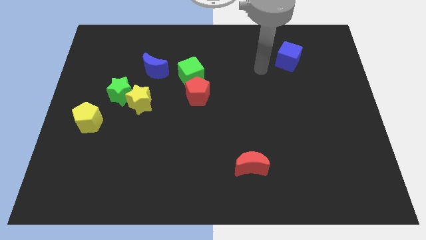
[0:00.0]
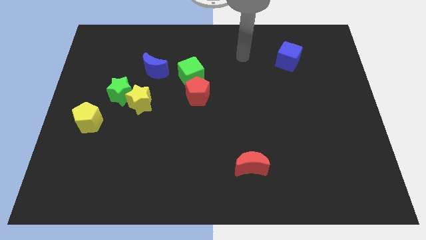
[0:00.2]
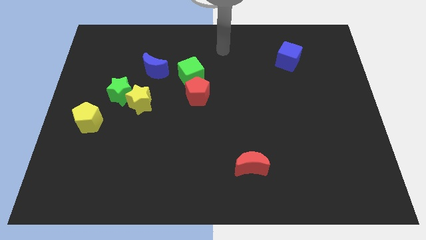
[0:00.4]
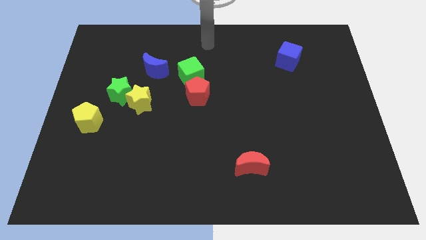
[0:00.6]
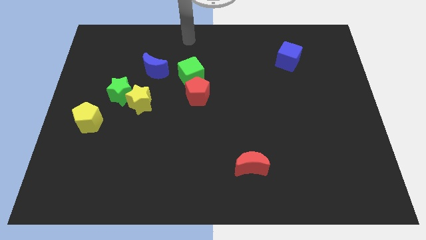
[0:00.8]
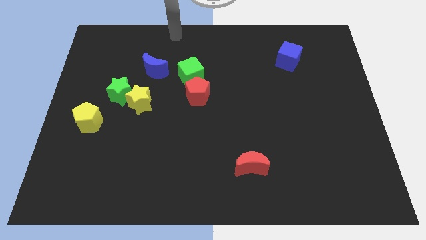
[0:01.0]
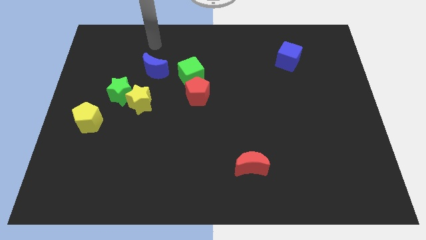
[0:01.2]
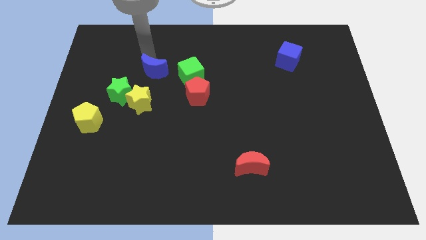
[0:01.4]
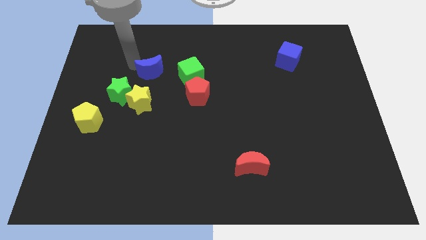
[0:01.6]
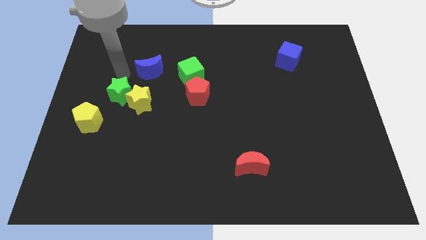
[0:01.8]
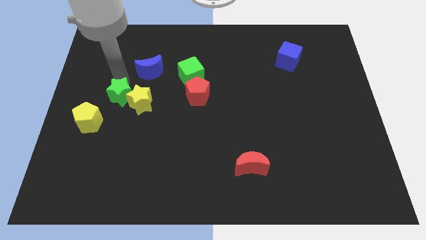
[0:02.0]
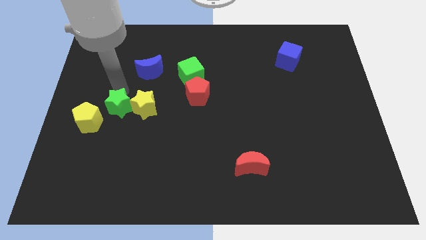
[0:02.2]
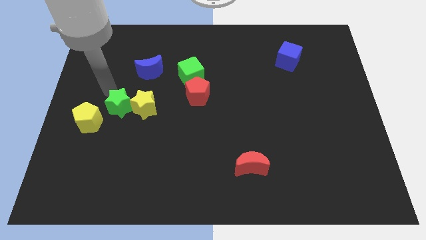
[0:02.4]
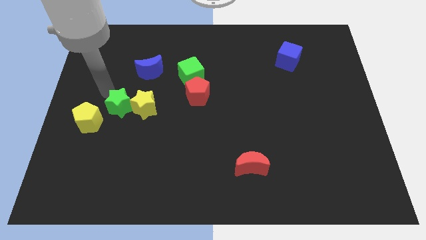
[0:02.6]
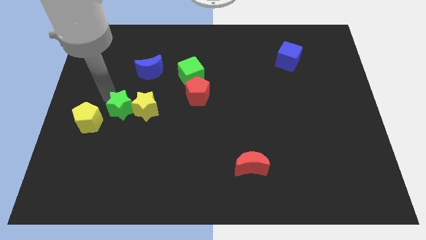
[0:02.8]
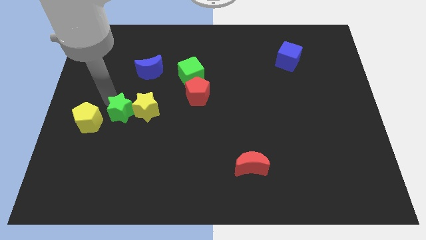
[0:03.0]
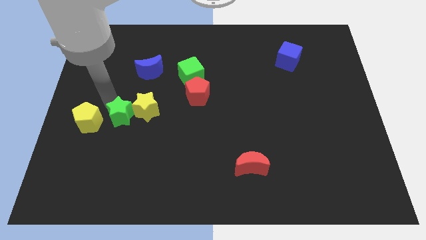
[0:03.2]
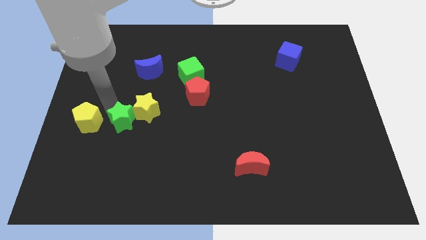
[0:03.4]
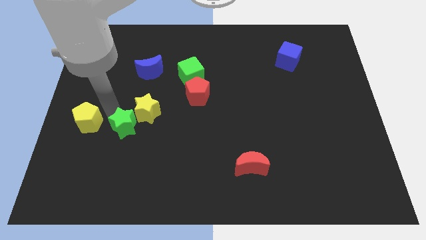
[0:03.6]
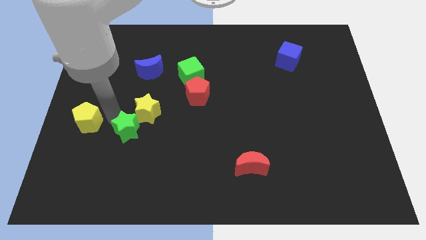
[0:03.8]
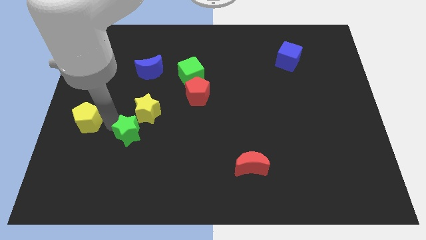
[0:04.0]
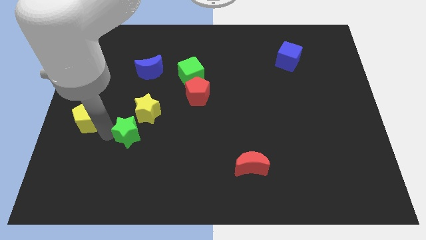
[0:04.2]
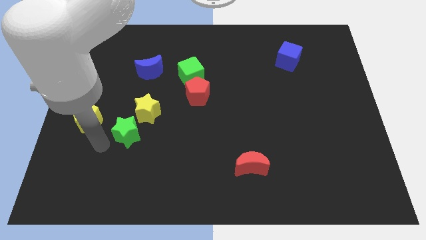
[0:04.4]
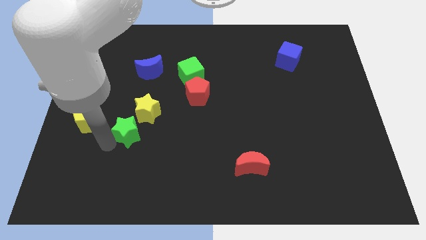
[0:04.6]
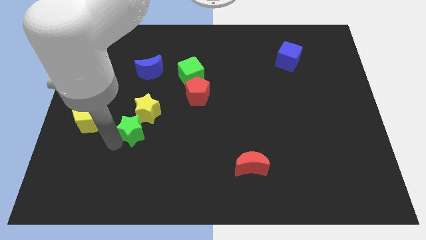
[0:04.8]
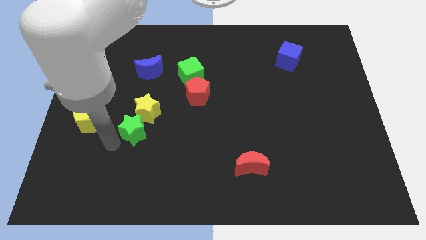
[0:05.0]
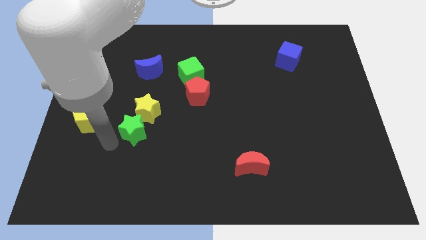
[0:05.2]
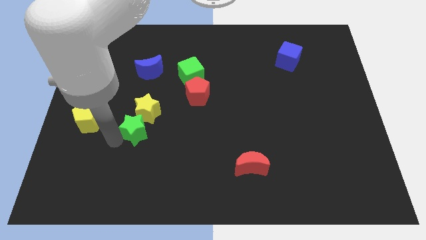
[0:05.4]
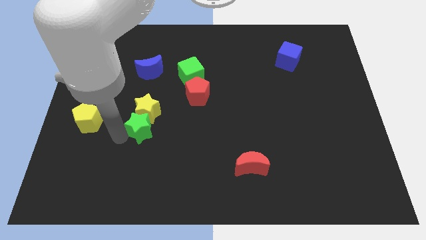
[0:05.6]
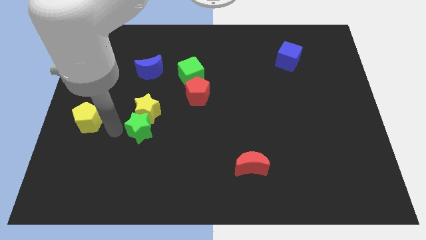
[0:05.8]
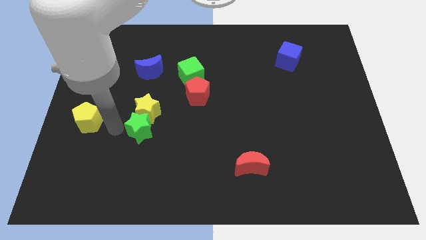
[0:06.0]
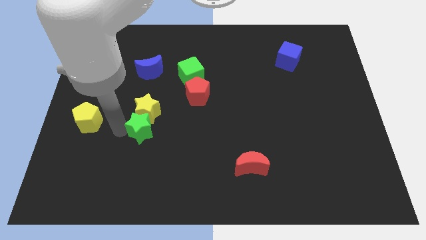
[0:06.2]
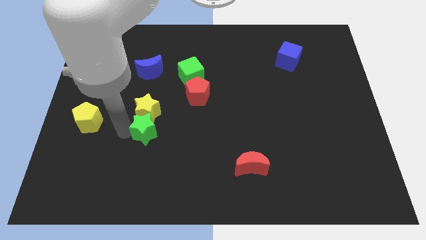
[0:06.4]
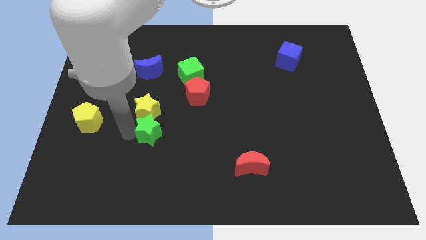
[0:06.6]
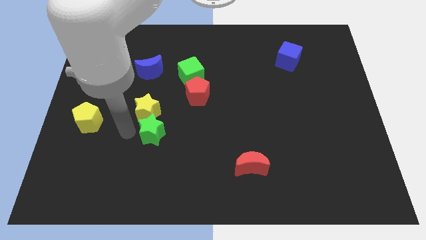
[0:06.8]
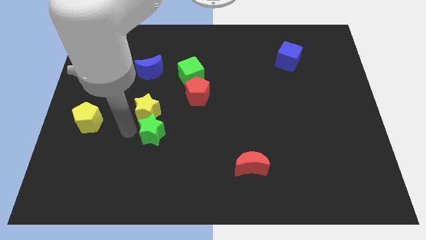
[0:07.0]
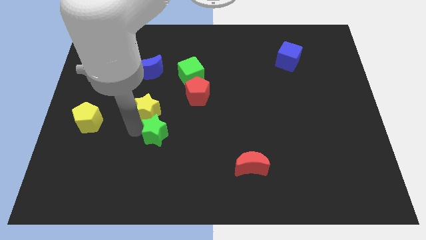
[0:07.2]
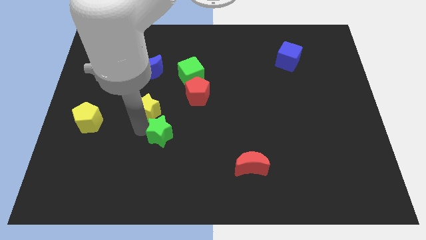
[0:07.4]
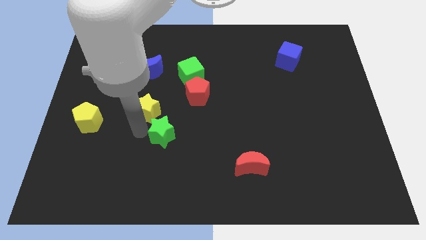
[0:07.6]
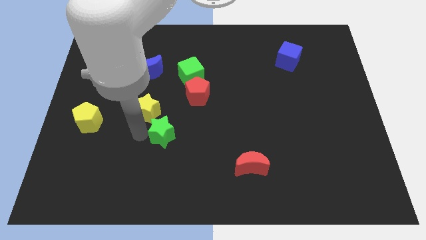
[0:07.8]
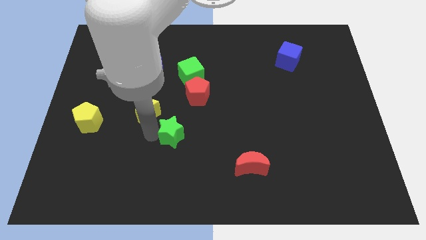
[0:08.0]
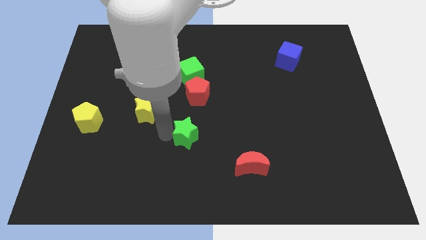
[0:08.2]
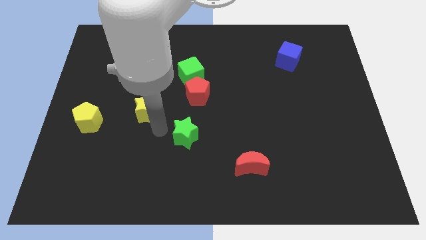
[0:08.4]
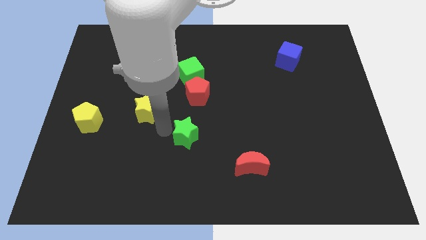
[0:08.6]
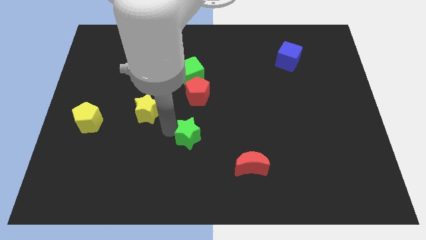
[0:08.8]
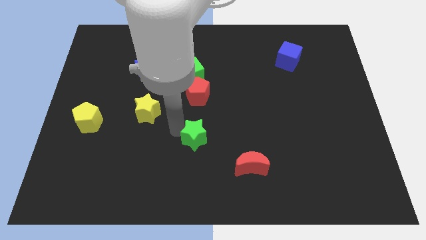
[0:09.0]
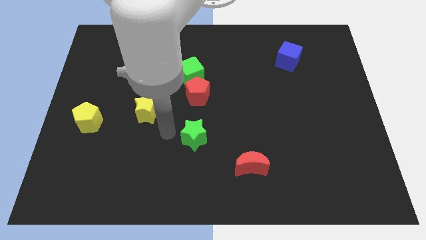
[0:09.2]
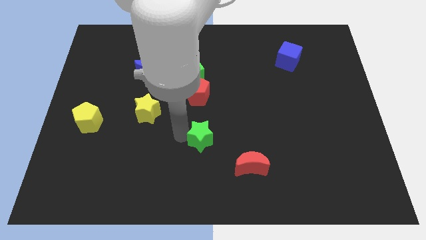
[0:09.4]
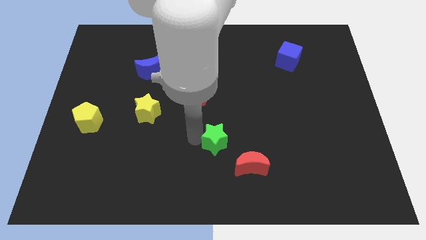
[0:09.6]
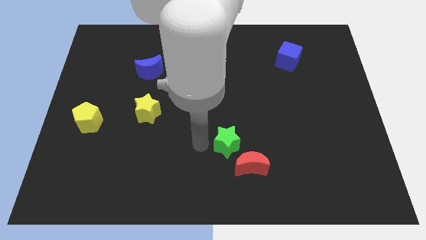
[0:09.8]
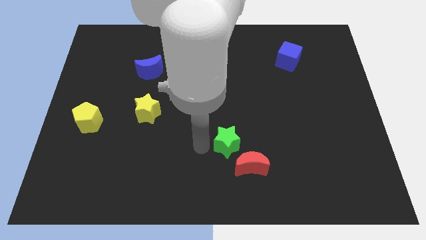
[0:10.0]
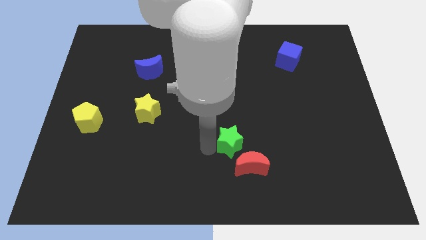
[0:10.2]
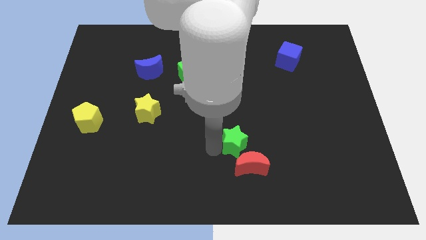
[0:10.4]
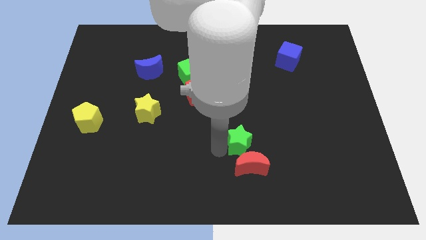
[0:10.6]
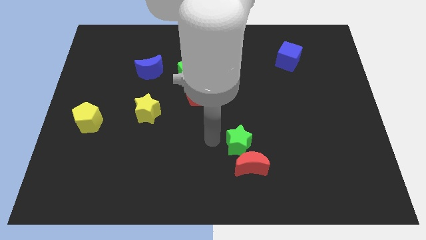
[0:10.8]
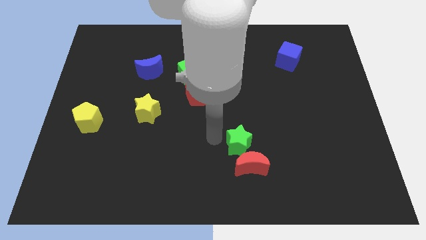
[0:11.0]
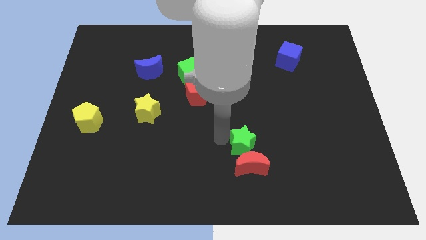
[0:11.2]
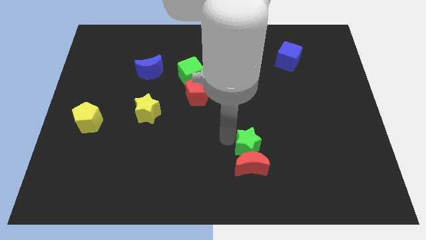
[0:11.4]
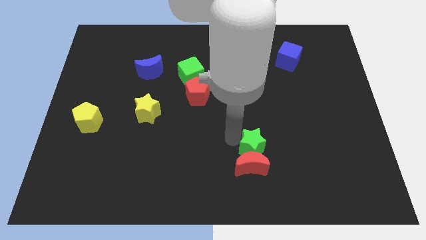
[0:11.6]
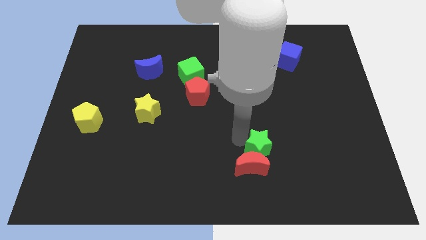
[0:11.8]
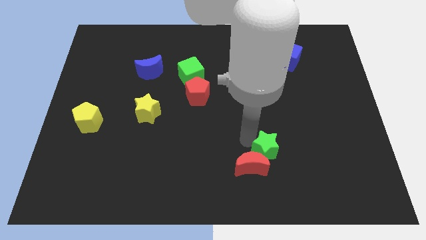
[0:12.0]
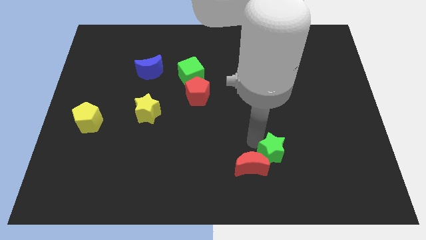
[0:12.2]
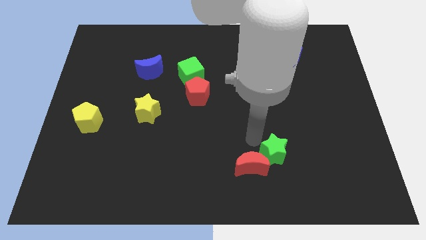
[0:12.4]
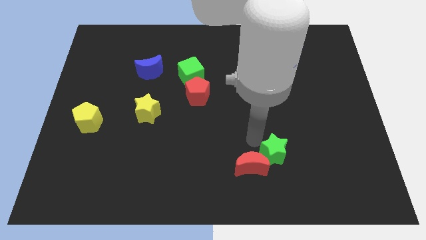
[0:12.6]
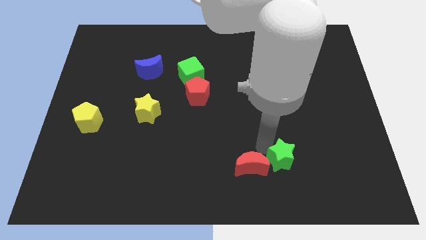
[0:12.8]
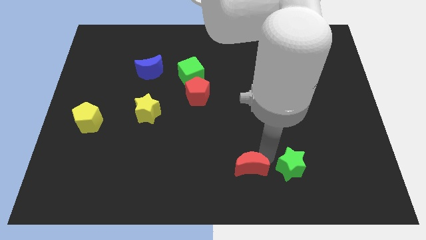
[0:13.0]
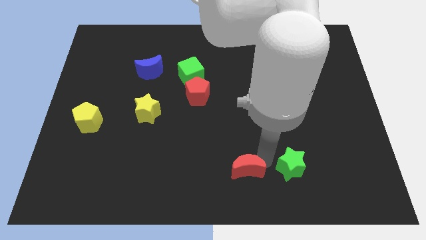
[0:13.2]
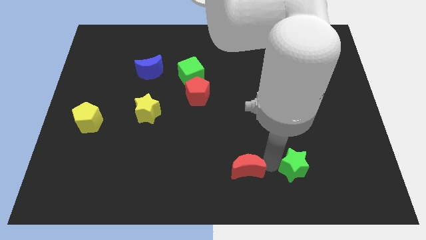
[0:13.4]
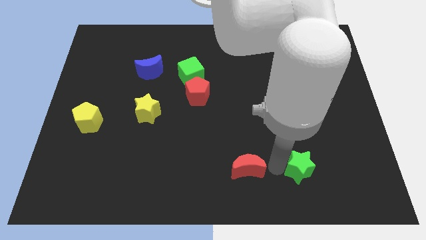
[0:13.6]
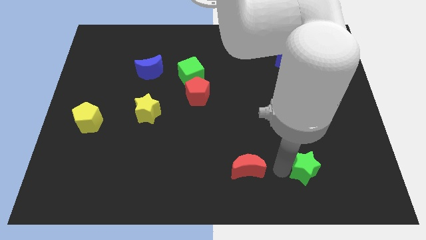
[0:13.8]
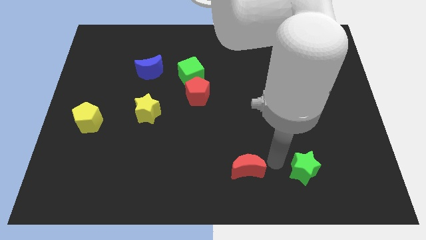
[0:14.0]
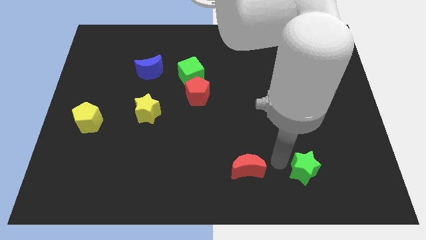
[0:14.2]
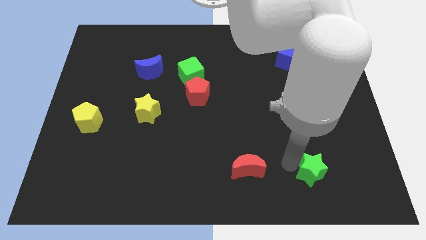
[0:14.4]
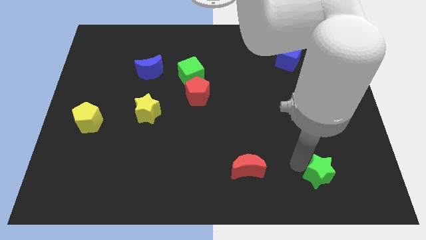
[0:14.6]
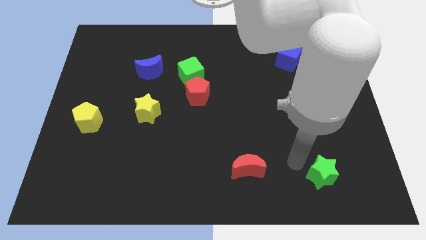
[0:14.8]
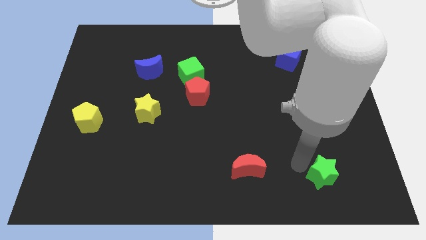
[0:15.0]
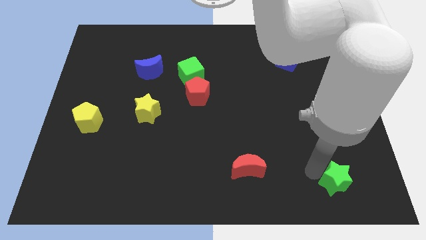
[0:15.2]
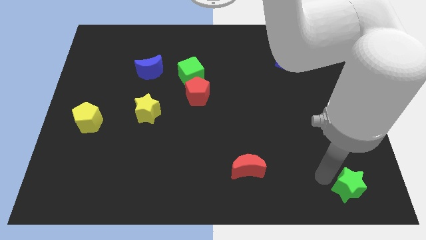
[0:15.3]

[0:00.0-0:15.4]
move the green star to the bottom right corner
